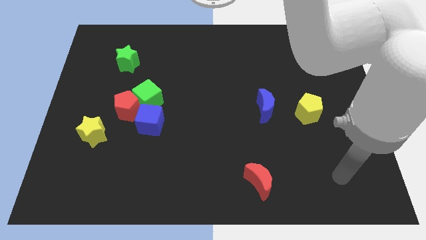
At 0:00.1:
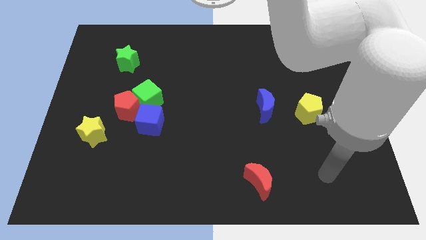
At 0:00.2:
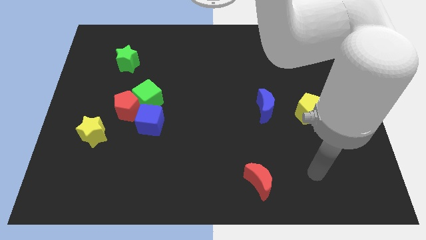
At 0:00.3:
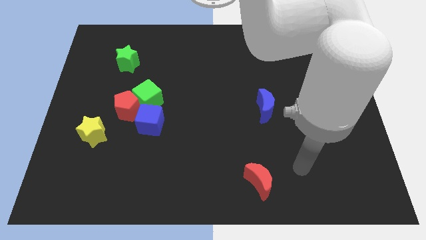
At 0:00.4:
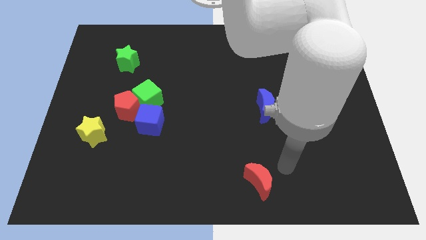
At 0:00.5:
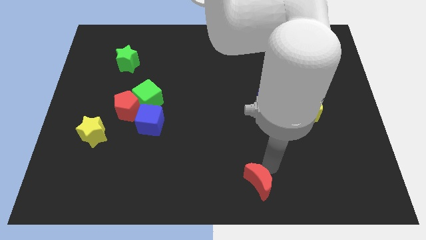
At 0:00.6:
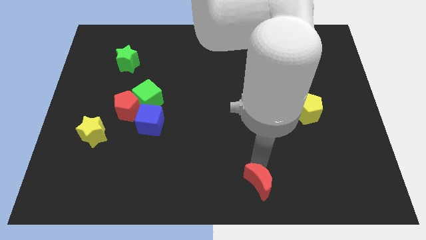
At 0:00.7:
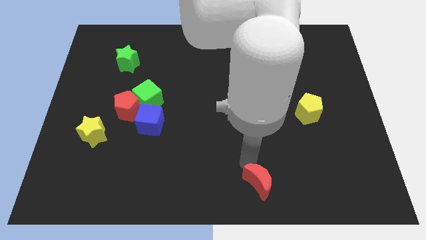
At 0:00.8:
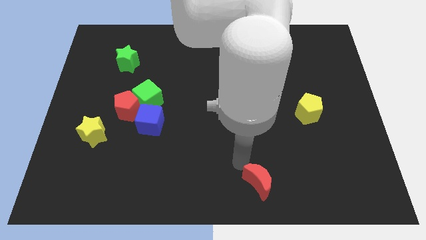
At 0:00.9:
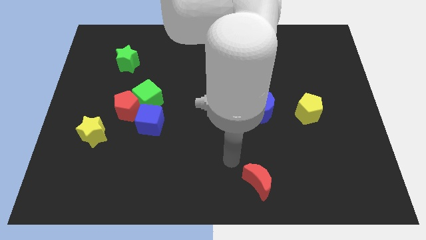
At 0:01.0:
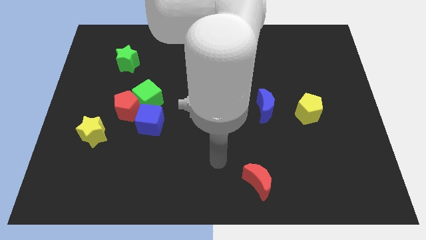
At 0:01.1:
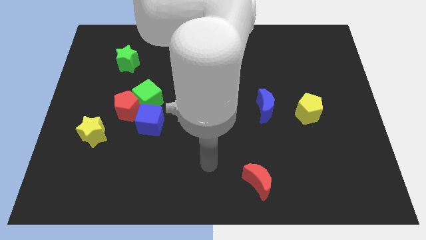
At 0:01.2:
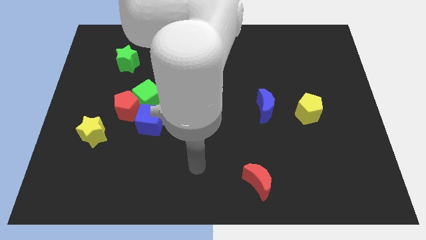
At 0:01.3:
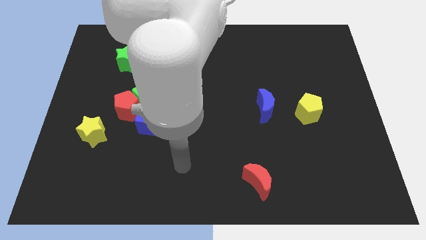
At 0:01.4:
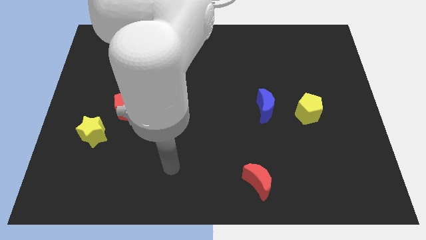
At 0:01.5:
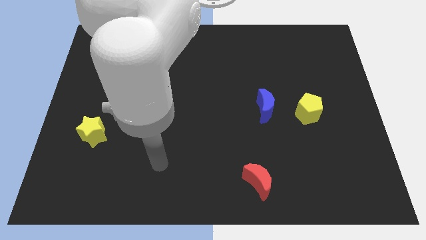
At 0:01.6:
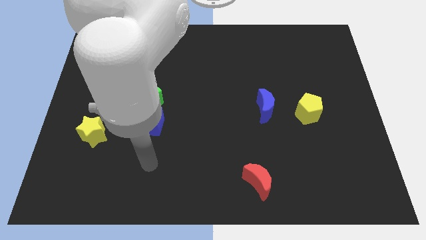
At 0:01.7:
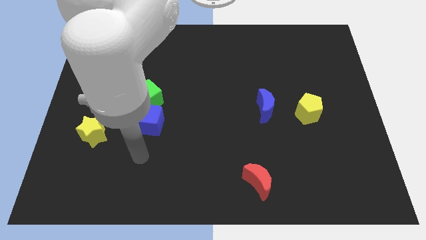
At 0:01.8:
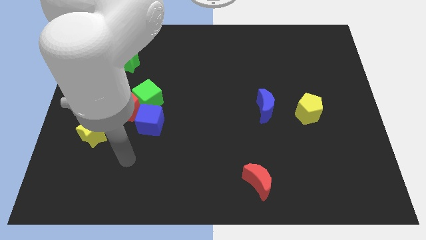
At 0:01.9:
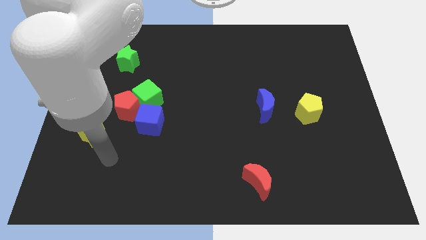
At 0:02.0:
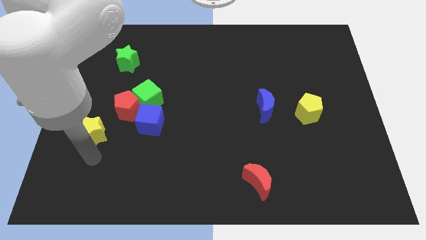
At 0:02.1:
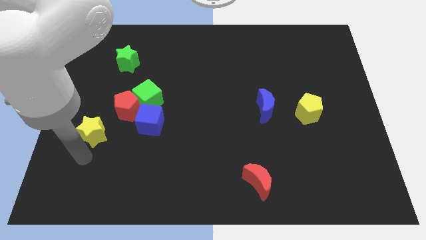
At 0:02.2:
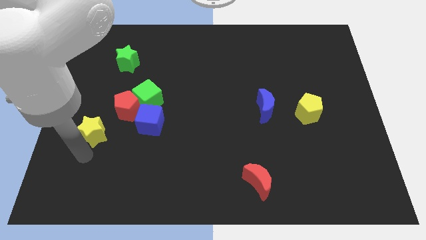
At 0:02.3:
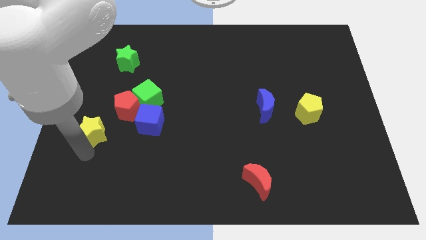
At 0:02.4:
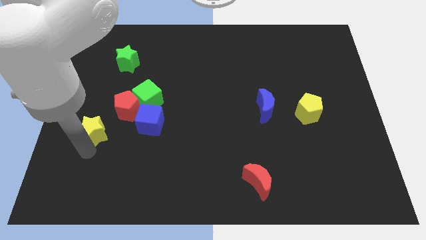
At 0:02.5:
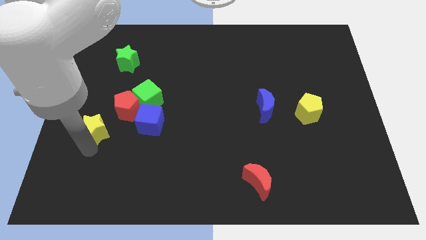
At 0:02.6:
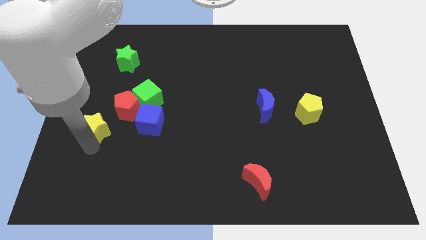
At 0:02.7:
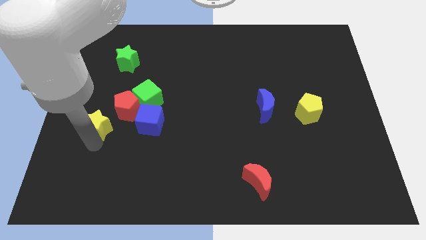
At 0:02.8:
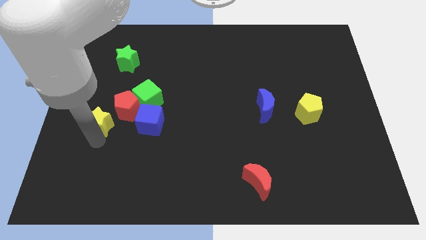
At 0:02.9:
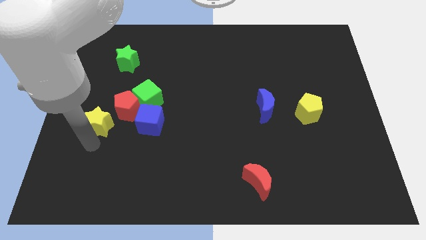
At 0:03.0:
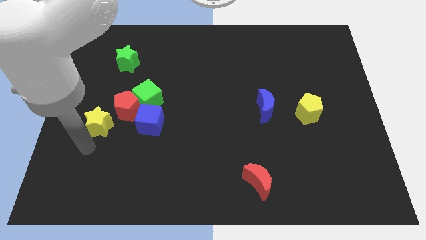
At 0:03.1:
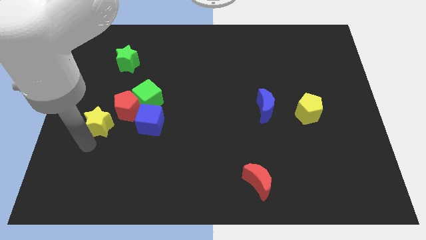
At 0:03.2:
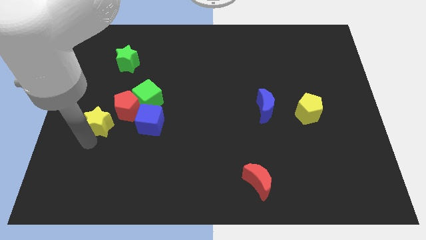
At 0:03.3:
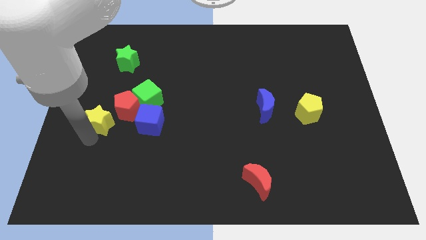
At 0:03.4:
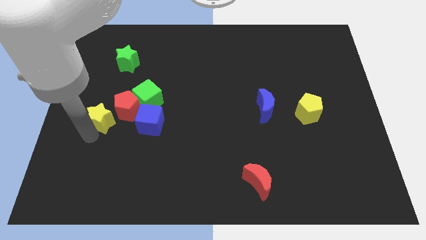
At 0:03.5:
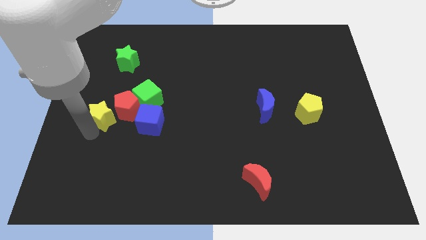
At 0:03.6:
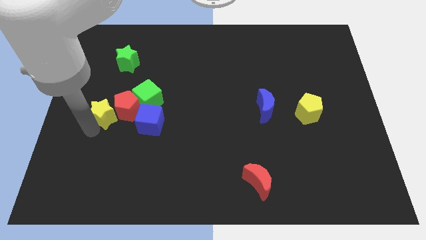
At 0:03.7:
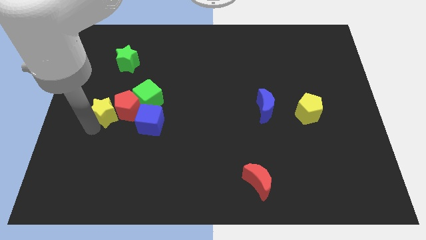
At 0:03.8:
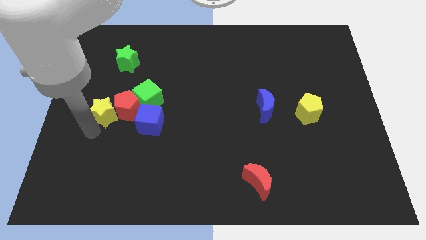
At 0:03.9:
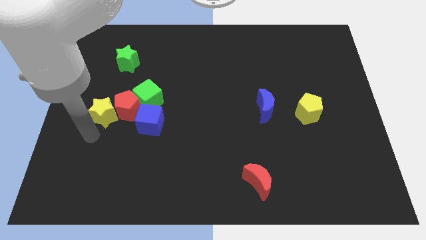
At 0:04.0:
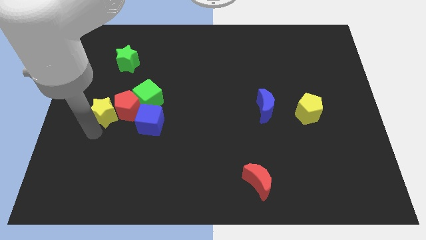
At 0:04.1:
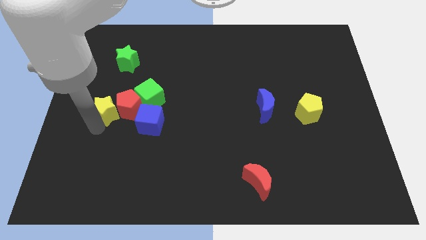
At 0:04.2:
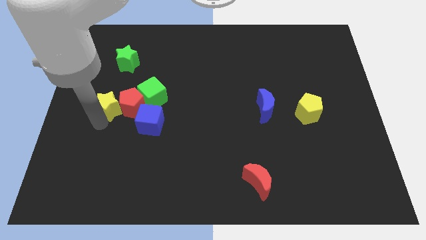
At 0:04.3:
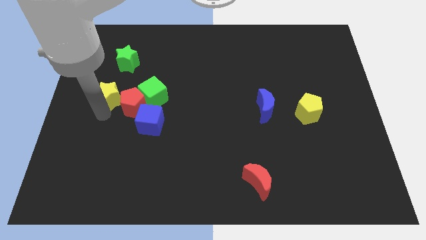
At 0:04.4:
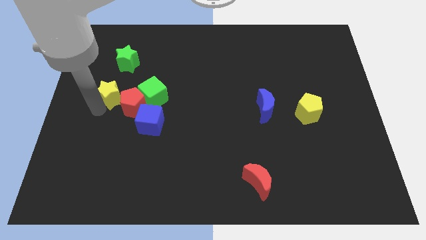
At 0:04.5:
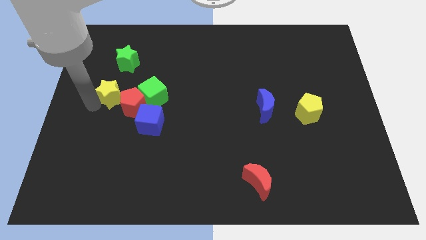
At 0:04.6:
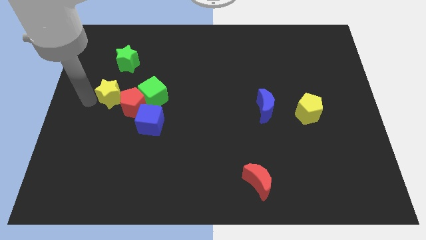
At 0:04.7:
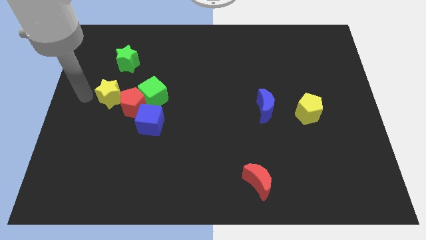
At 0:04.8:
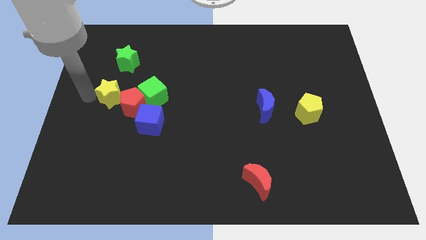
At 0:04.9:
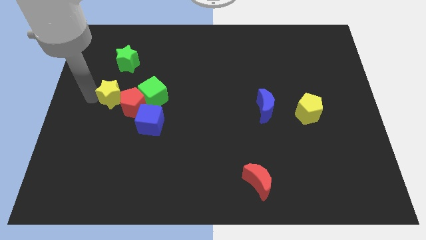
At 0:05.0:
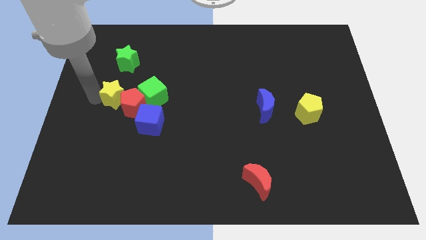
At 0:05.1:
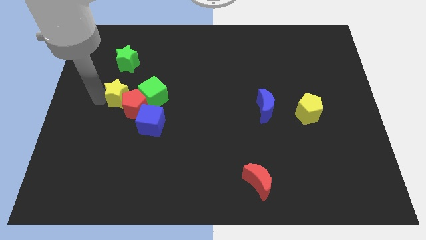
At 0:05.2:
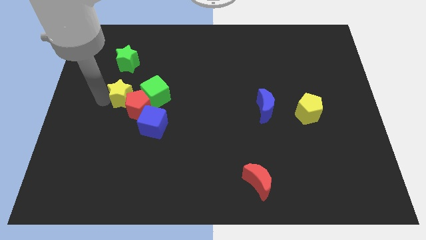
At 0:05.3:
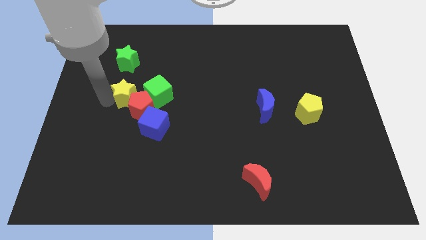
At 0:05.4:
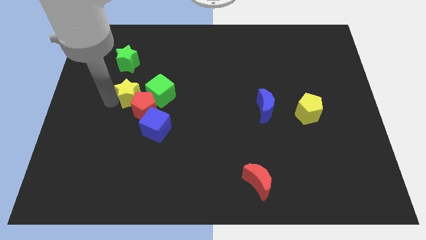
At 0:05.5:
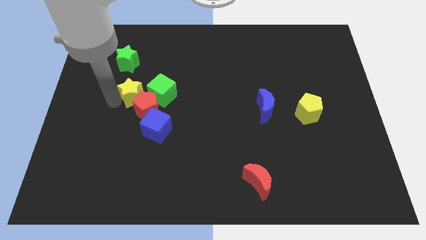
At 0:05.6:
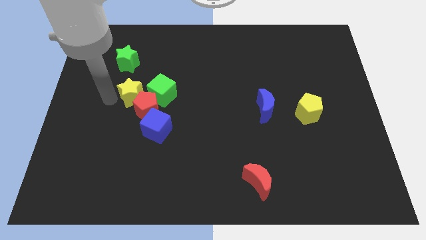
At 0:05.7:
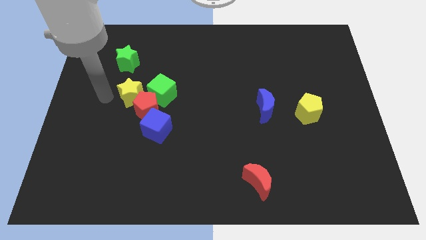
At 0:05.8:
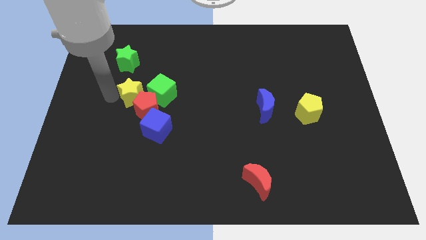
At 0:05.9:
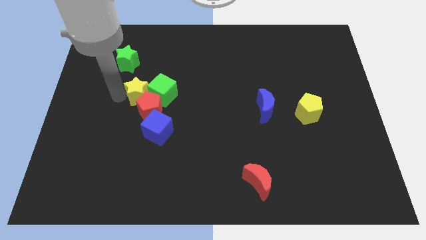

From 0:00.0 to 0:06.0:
put the yellow star close to the green cube

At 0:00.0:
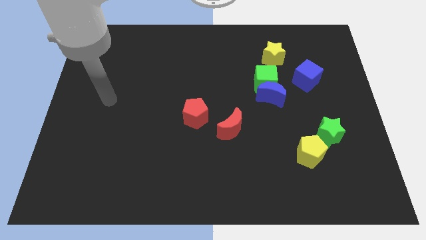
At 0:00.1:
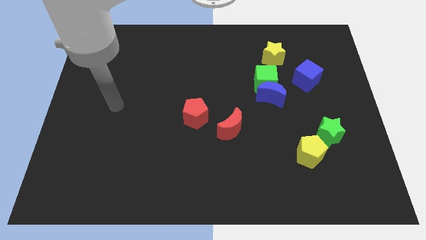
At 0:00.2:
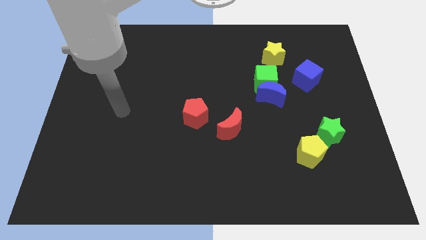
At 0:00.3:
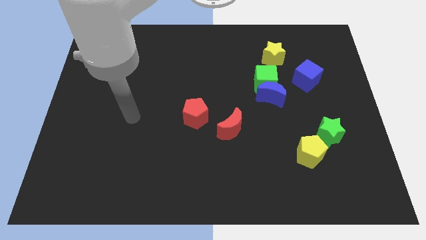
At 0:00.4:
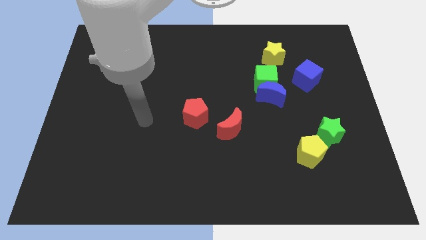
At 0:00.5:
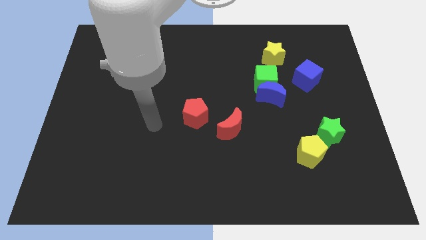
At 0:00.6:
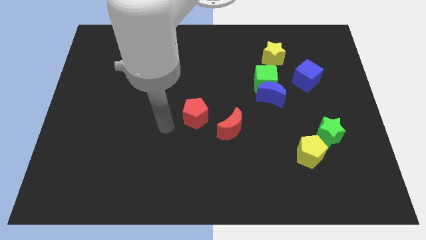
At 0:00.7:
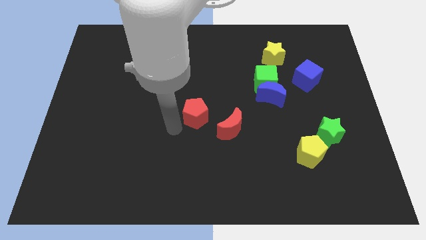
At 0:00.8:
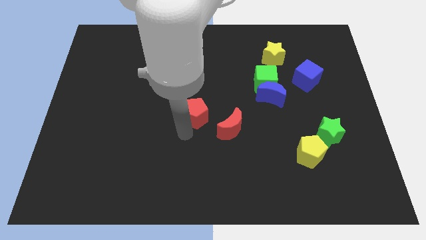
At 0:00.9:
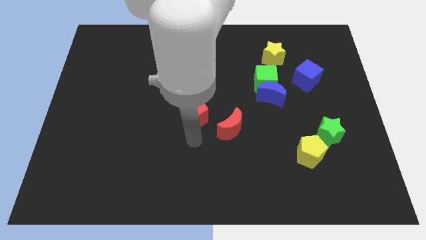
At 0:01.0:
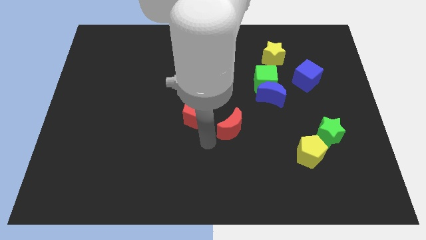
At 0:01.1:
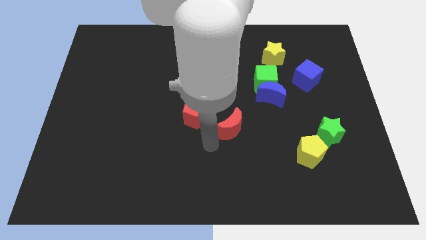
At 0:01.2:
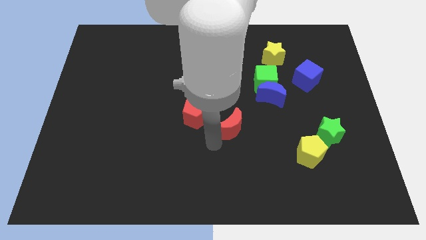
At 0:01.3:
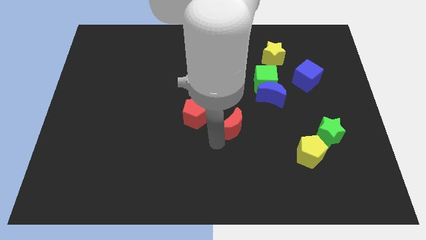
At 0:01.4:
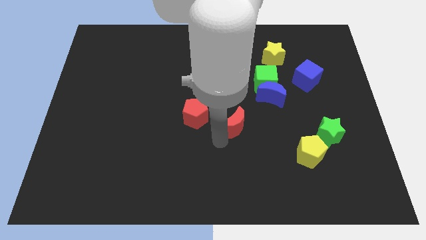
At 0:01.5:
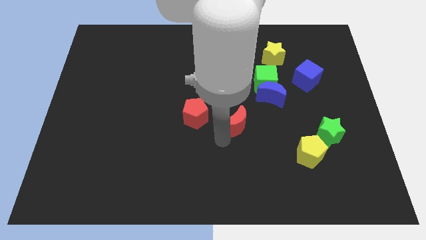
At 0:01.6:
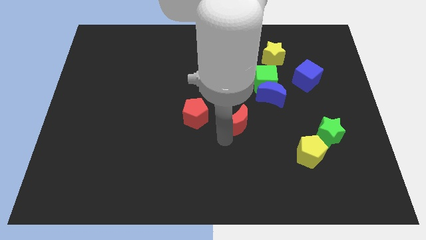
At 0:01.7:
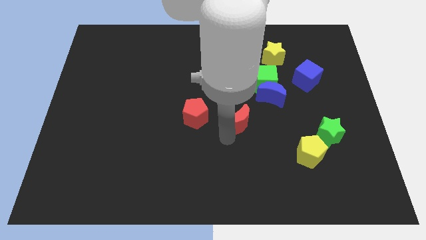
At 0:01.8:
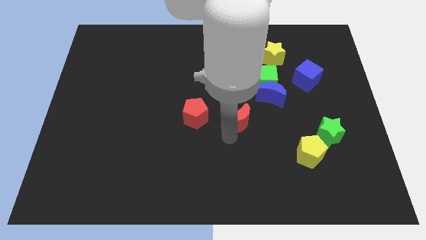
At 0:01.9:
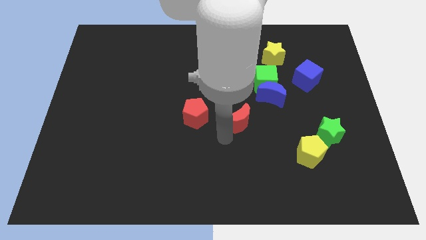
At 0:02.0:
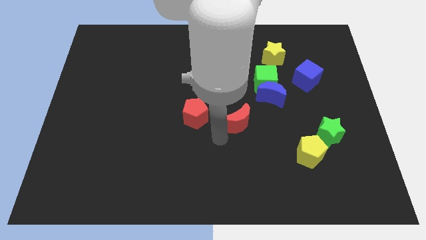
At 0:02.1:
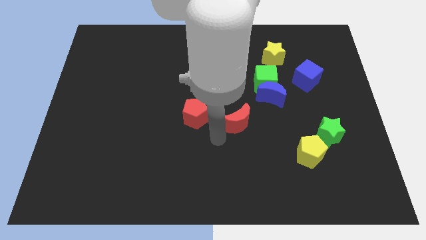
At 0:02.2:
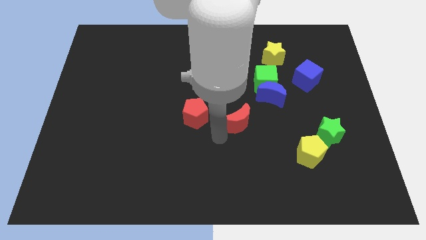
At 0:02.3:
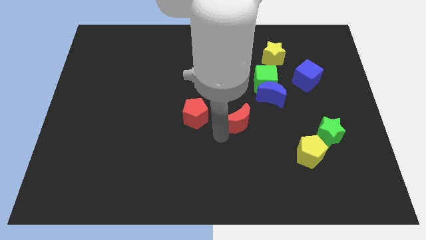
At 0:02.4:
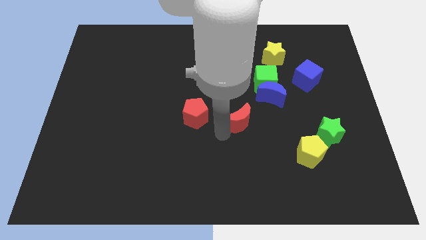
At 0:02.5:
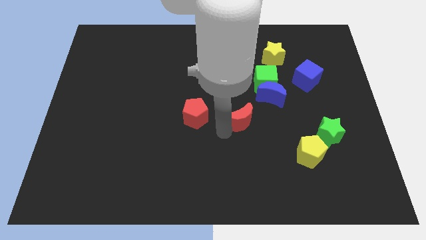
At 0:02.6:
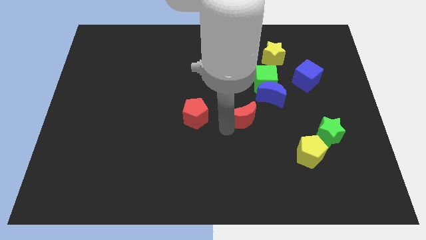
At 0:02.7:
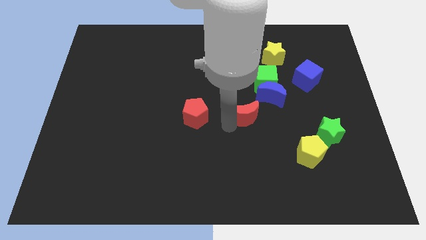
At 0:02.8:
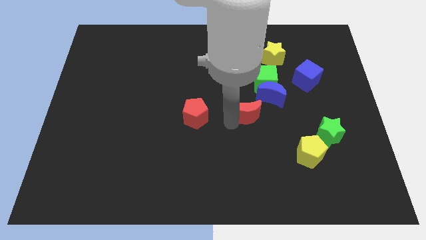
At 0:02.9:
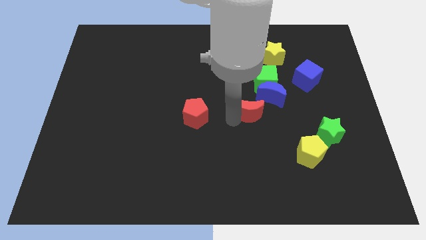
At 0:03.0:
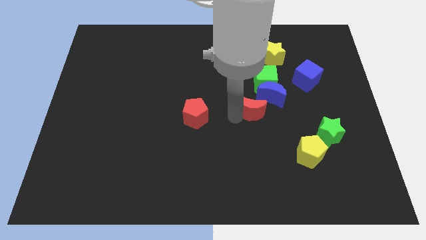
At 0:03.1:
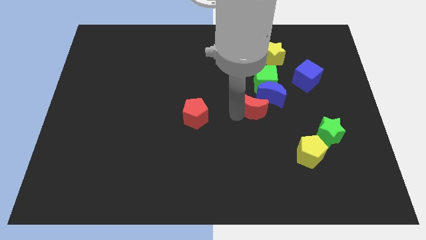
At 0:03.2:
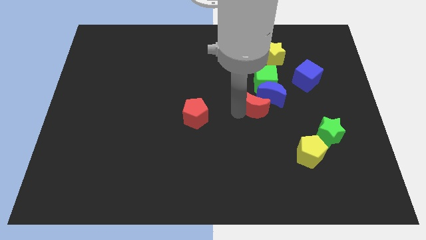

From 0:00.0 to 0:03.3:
push the red moon close to the blue moon
